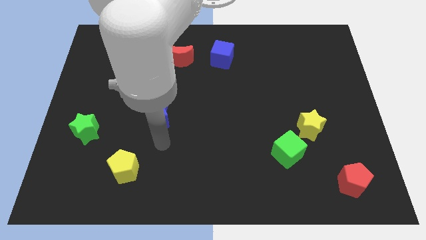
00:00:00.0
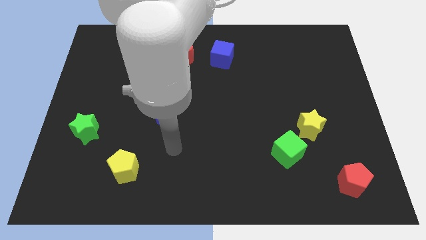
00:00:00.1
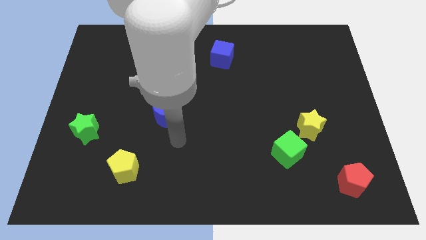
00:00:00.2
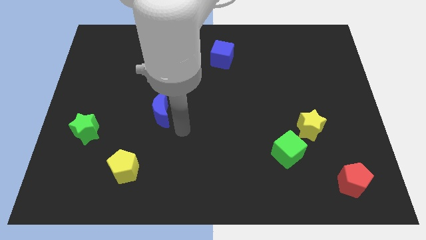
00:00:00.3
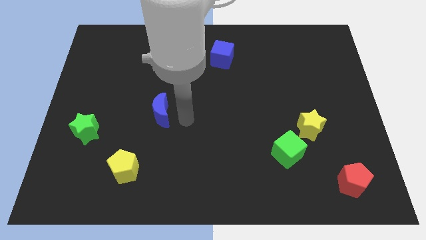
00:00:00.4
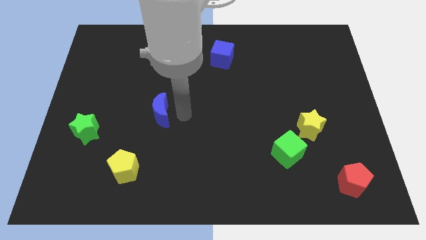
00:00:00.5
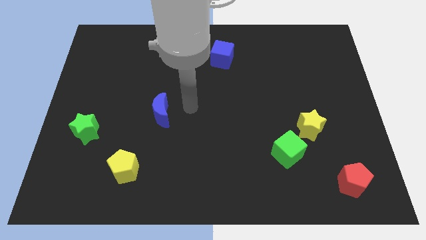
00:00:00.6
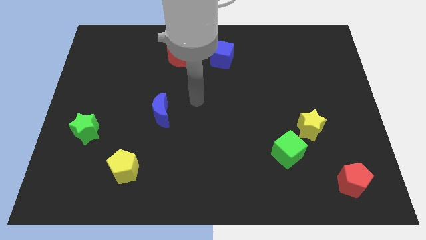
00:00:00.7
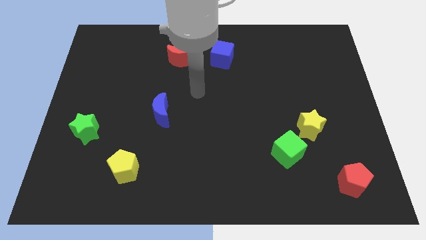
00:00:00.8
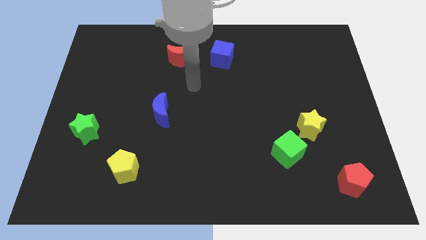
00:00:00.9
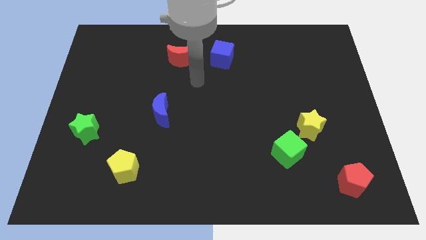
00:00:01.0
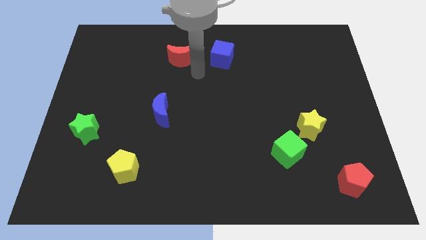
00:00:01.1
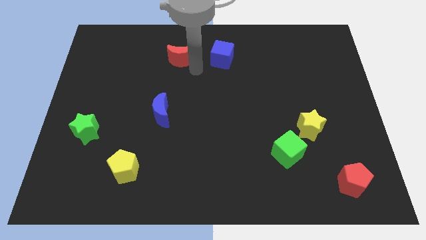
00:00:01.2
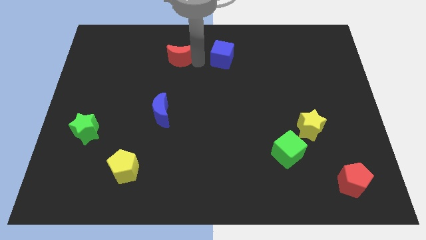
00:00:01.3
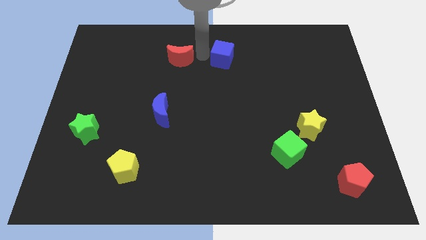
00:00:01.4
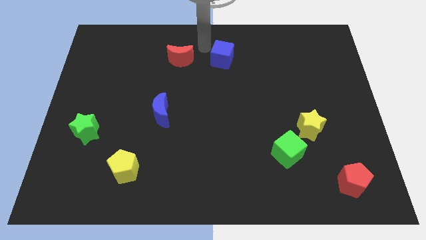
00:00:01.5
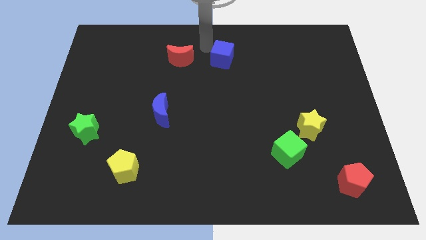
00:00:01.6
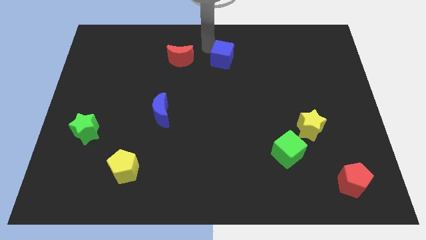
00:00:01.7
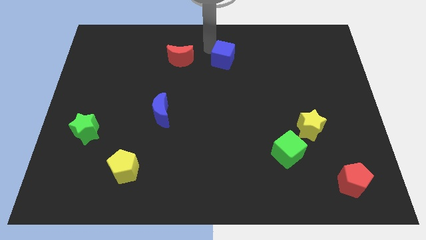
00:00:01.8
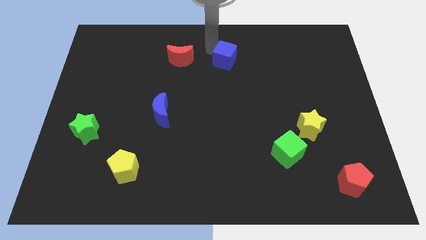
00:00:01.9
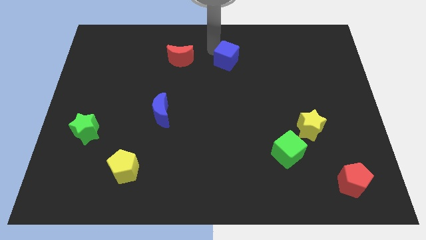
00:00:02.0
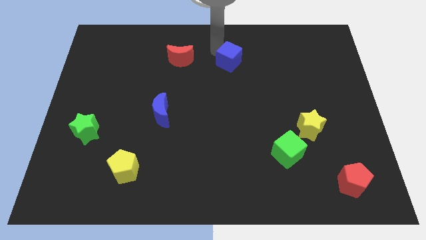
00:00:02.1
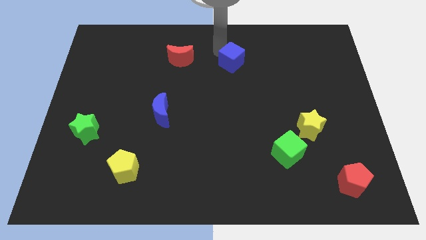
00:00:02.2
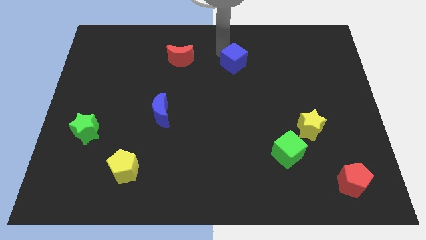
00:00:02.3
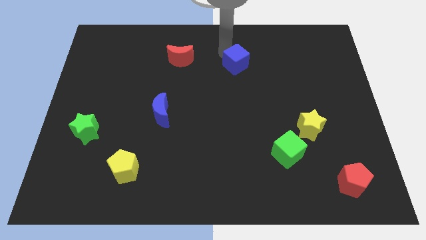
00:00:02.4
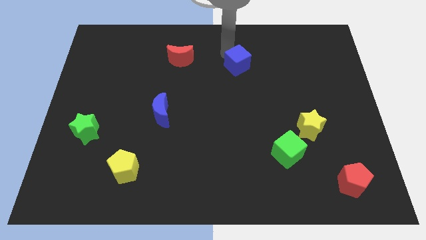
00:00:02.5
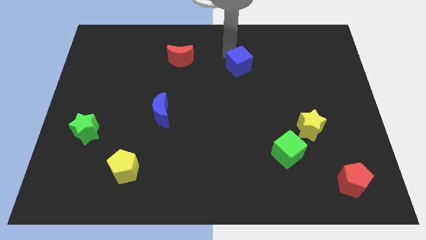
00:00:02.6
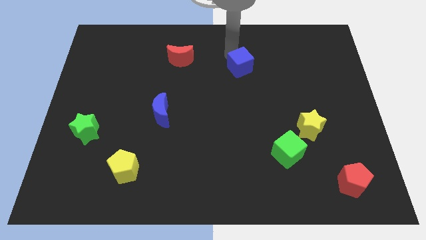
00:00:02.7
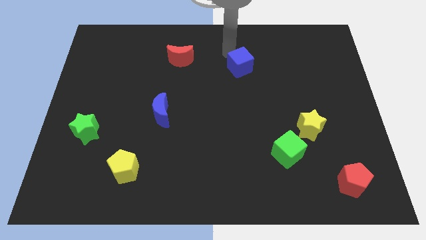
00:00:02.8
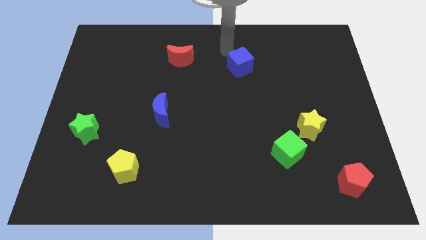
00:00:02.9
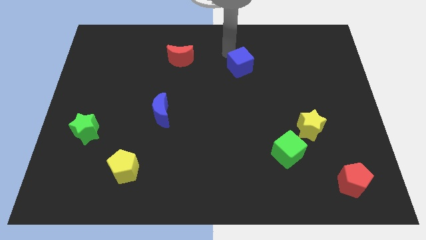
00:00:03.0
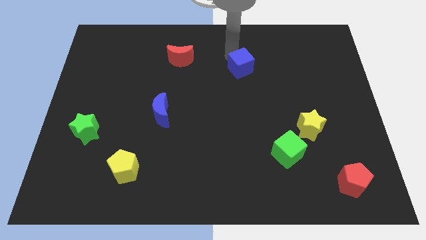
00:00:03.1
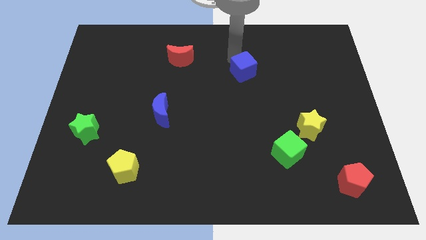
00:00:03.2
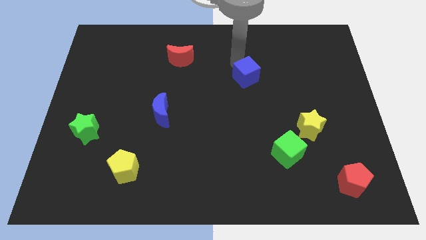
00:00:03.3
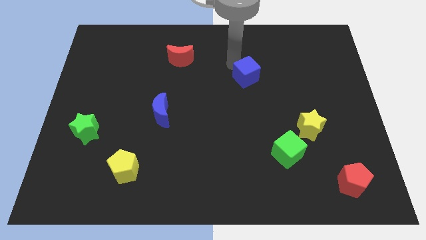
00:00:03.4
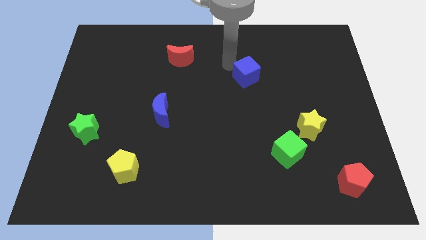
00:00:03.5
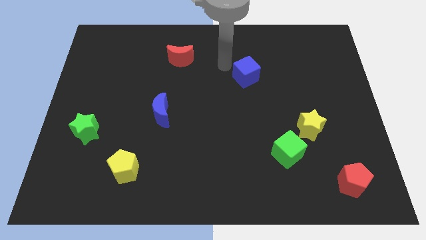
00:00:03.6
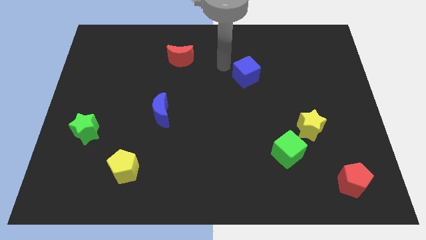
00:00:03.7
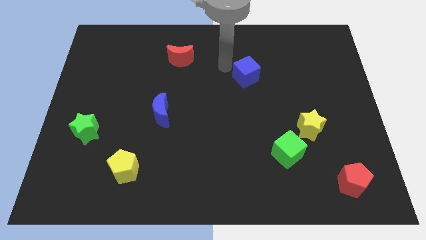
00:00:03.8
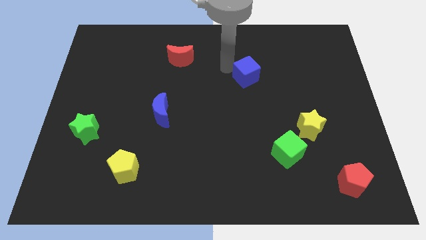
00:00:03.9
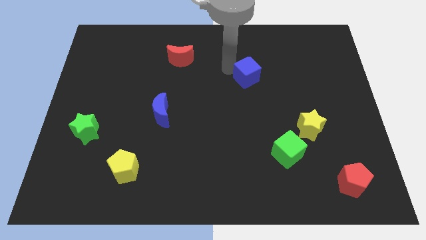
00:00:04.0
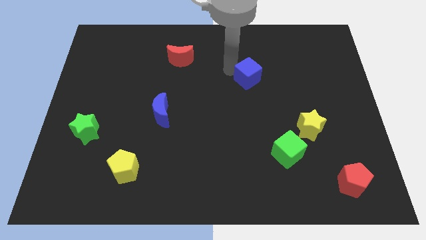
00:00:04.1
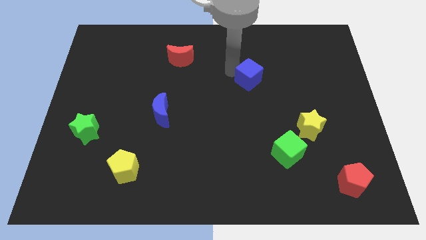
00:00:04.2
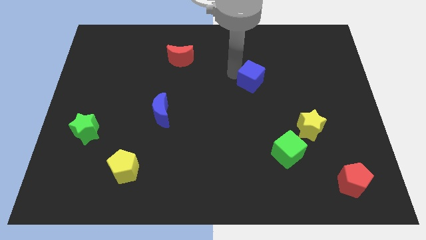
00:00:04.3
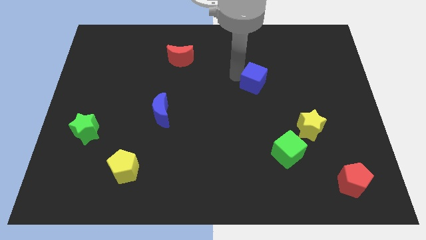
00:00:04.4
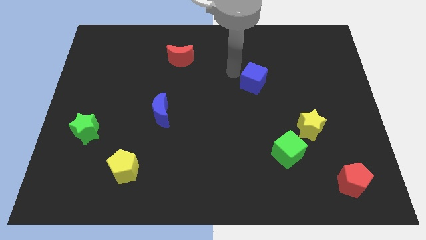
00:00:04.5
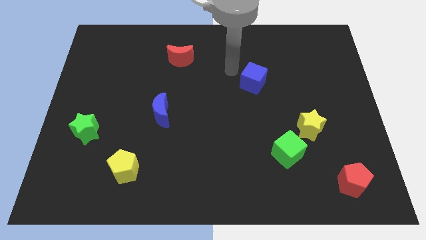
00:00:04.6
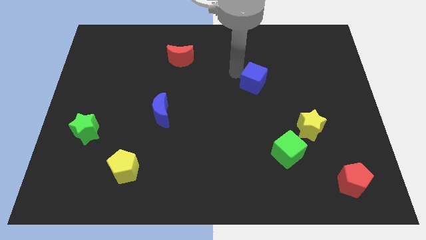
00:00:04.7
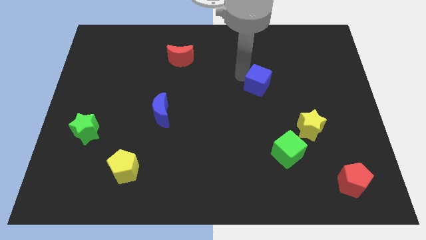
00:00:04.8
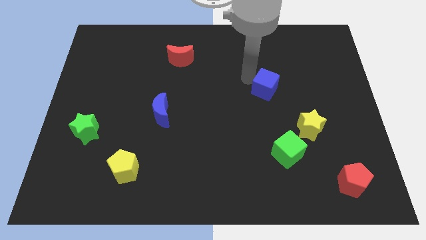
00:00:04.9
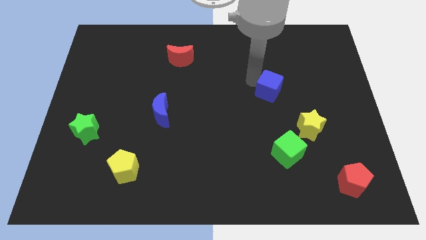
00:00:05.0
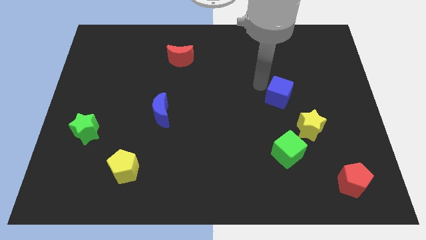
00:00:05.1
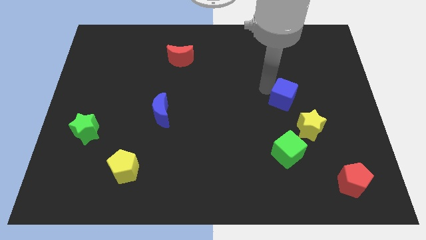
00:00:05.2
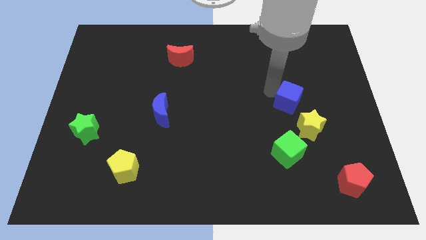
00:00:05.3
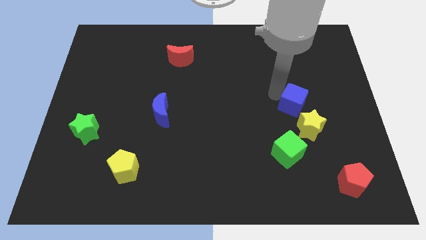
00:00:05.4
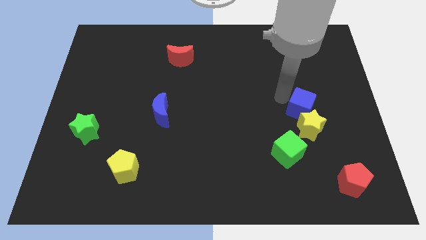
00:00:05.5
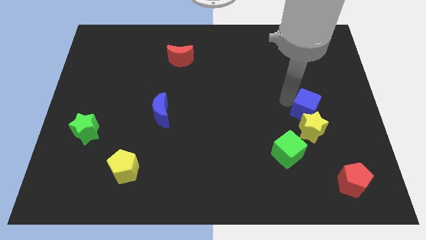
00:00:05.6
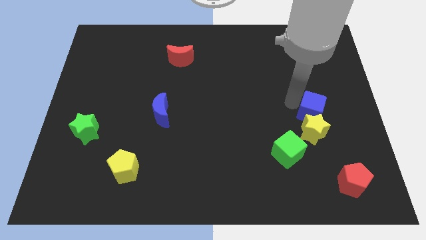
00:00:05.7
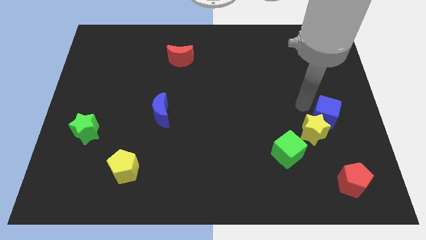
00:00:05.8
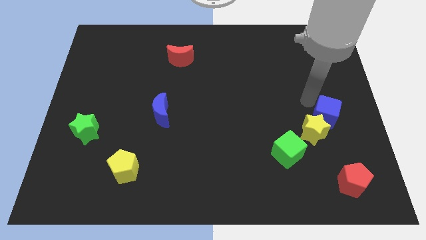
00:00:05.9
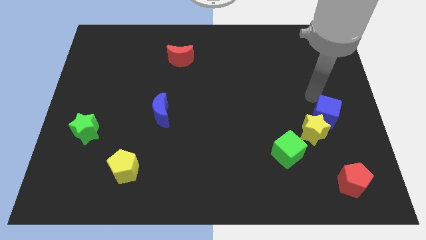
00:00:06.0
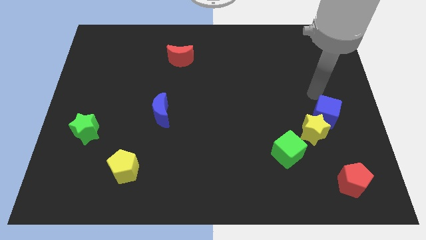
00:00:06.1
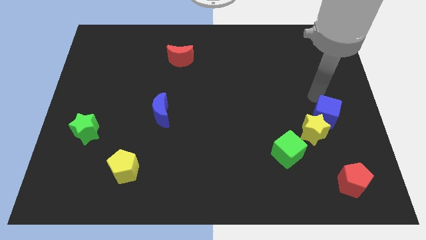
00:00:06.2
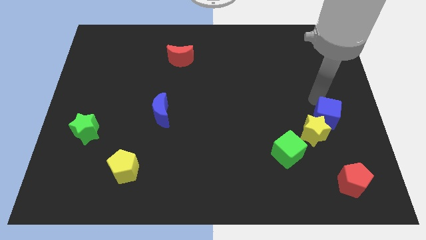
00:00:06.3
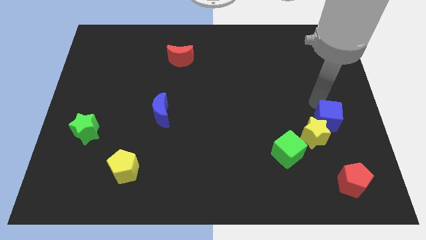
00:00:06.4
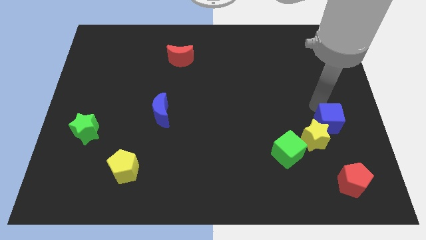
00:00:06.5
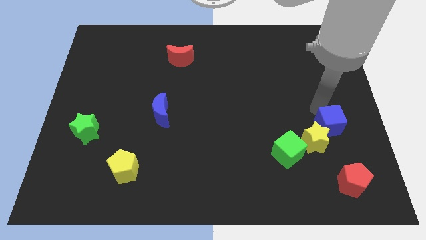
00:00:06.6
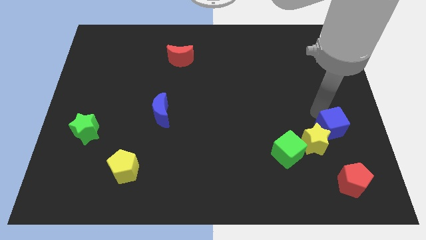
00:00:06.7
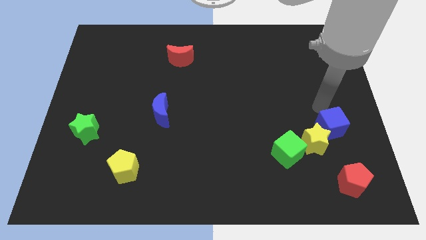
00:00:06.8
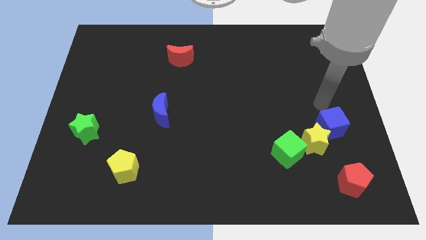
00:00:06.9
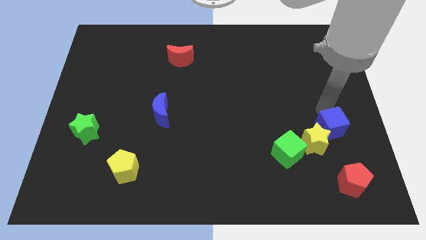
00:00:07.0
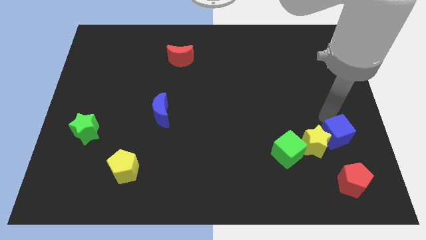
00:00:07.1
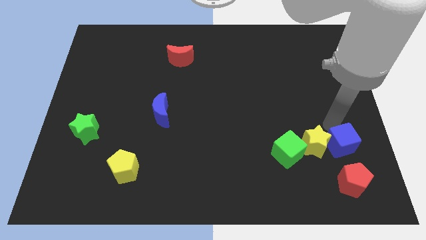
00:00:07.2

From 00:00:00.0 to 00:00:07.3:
move the blue cube to the bottom right side of the yellow star
